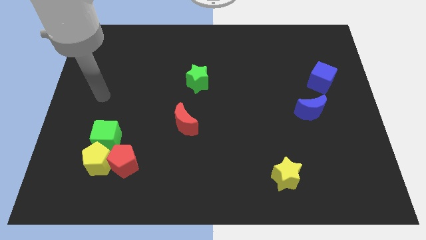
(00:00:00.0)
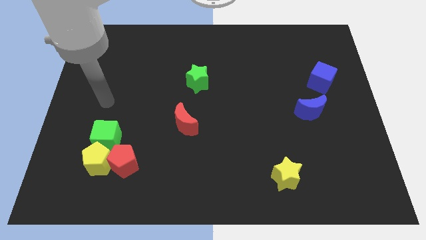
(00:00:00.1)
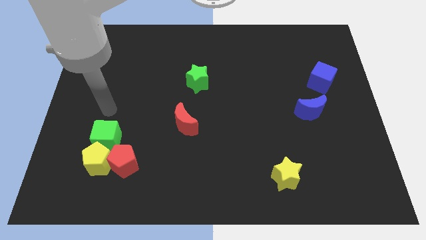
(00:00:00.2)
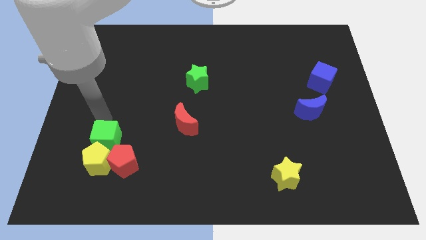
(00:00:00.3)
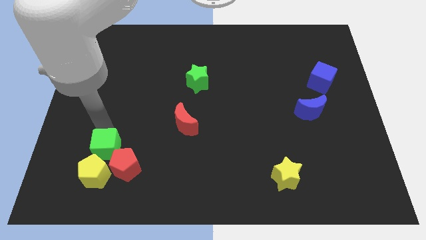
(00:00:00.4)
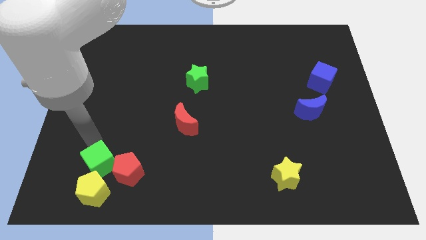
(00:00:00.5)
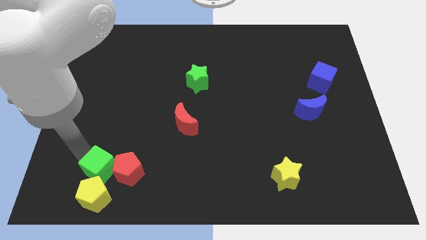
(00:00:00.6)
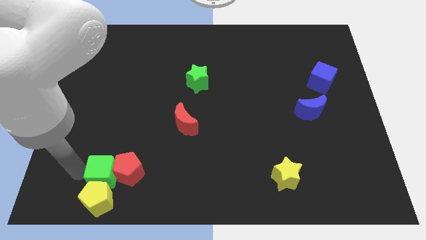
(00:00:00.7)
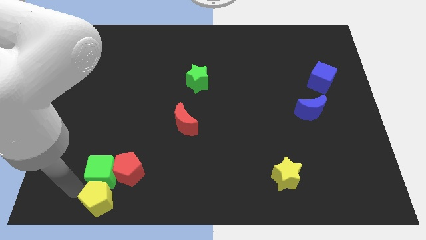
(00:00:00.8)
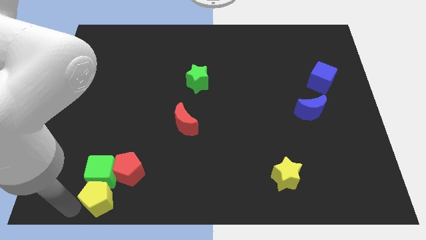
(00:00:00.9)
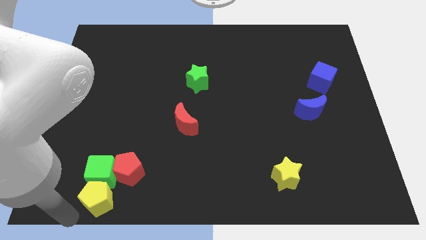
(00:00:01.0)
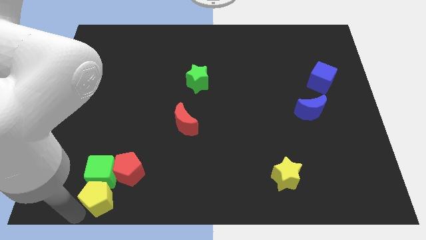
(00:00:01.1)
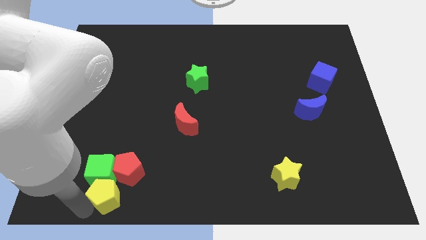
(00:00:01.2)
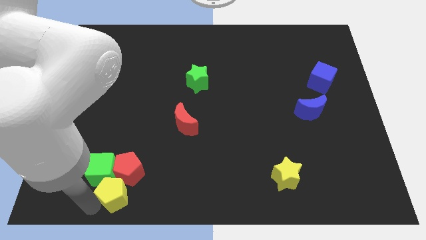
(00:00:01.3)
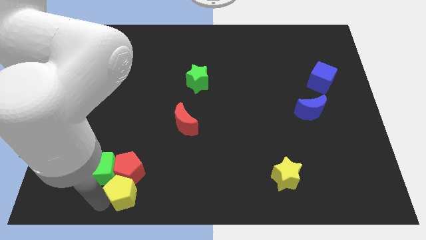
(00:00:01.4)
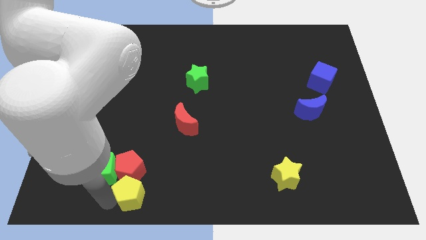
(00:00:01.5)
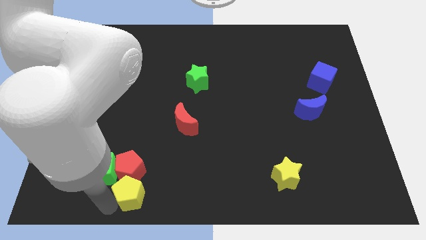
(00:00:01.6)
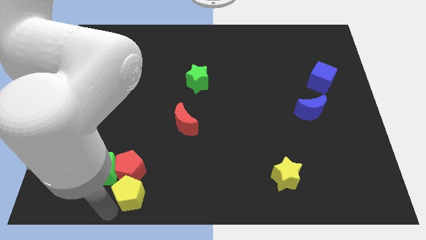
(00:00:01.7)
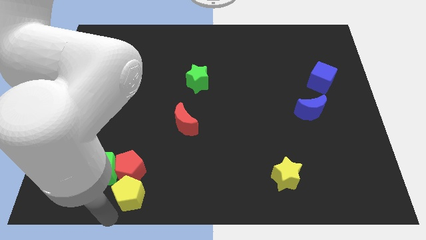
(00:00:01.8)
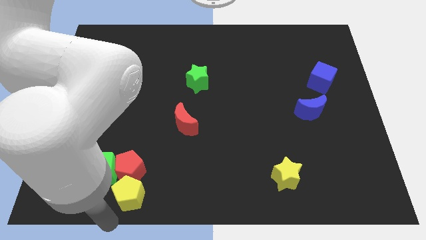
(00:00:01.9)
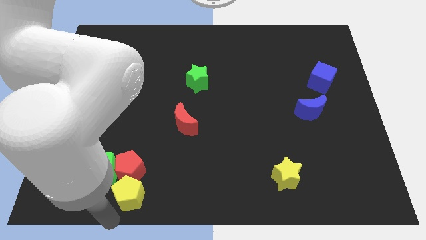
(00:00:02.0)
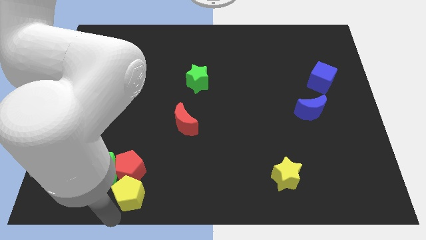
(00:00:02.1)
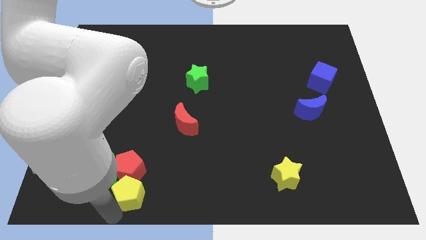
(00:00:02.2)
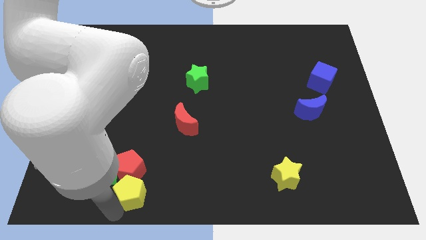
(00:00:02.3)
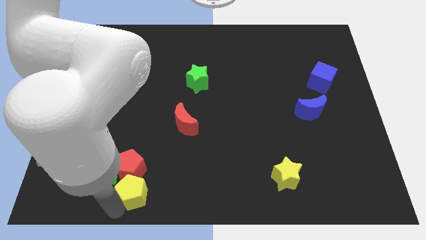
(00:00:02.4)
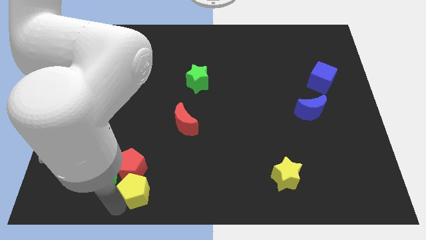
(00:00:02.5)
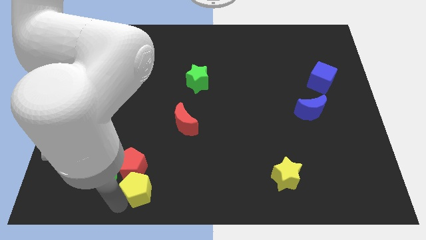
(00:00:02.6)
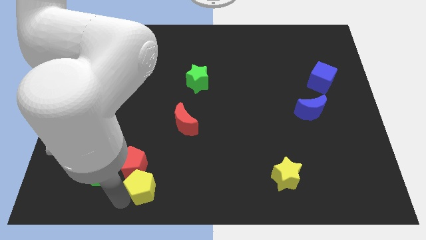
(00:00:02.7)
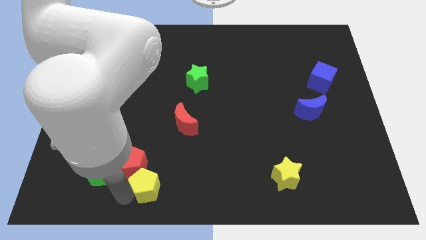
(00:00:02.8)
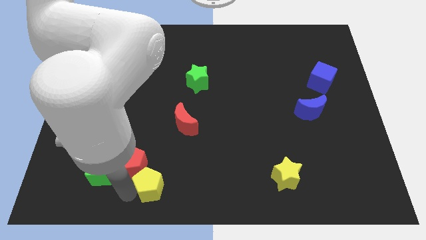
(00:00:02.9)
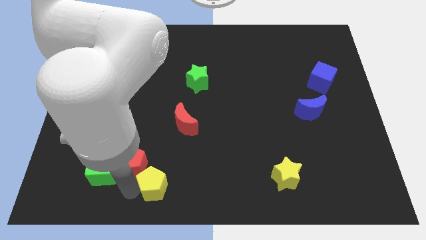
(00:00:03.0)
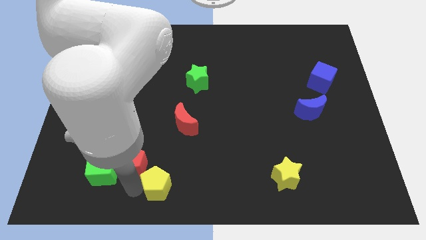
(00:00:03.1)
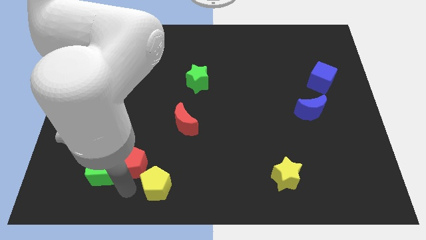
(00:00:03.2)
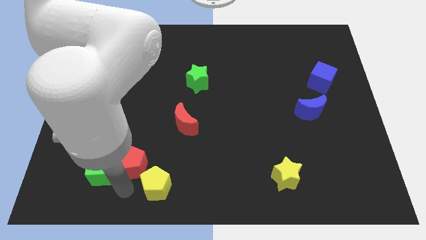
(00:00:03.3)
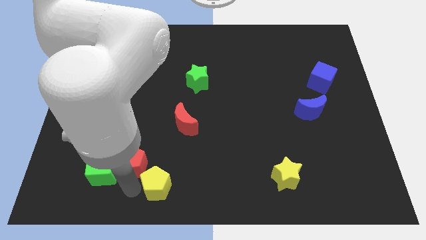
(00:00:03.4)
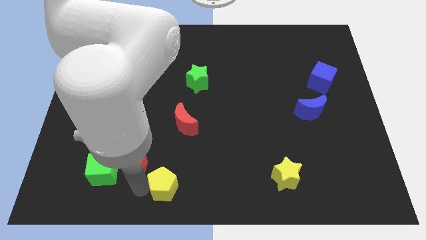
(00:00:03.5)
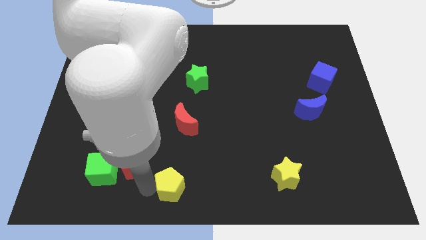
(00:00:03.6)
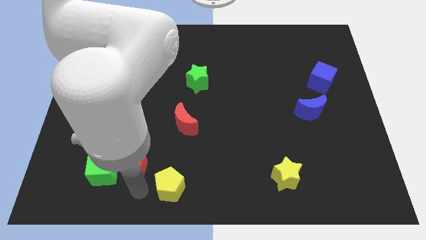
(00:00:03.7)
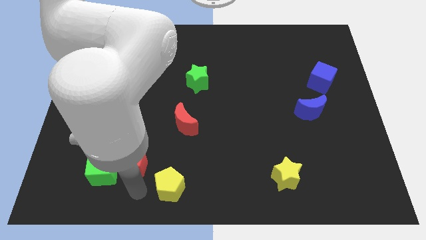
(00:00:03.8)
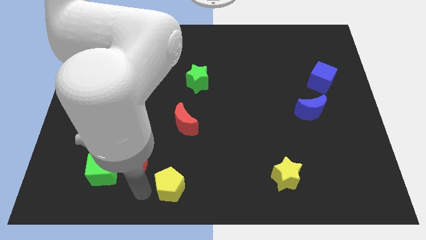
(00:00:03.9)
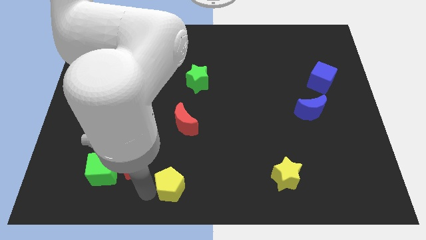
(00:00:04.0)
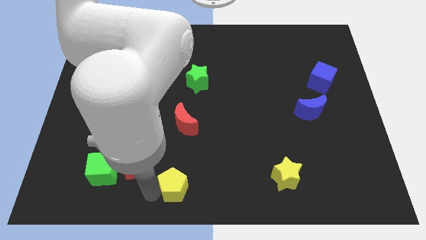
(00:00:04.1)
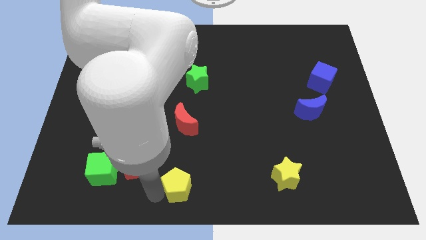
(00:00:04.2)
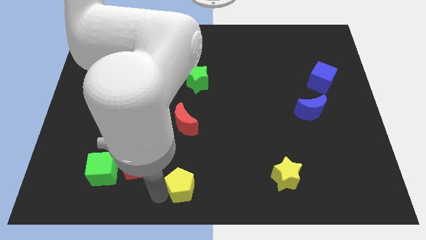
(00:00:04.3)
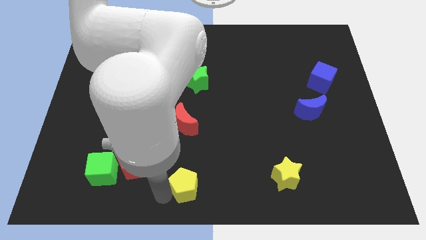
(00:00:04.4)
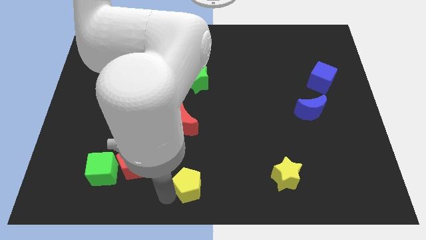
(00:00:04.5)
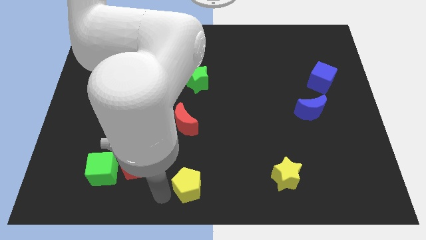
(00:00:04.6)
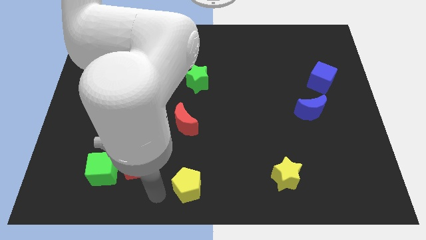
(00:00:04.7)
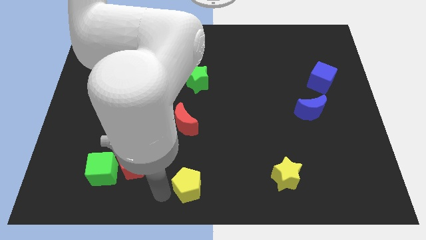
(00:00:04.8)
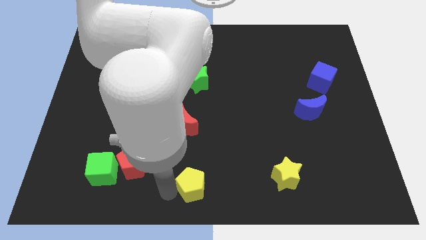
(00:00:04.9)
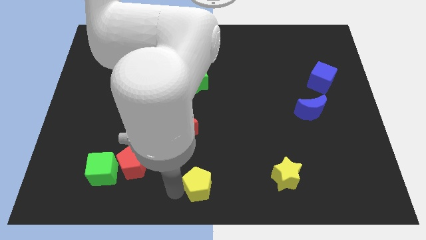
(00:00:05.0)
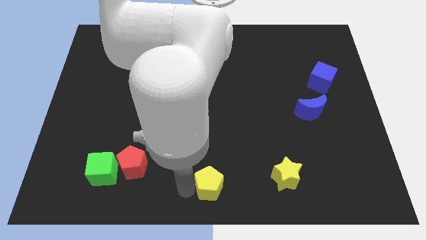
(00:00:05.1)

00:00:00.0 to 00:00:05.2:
slide the yellow pentagon to the left of the yellow star

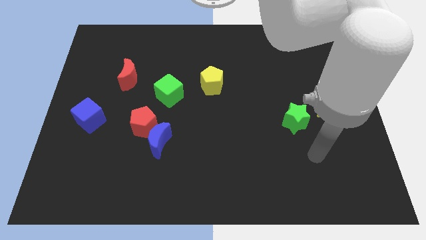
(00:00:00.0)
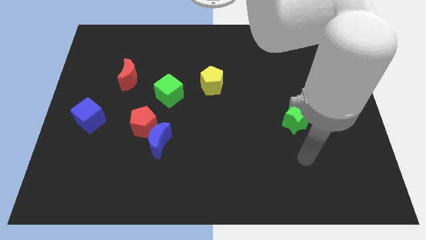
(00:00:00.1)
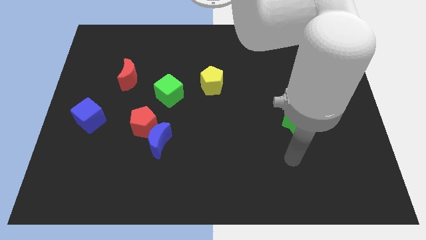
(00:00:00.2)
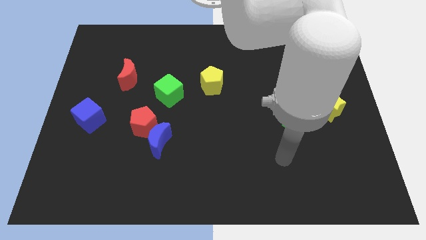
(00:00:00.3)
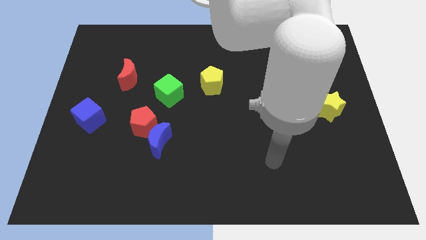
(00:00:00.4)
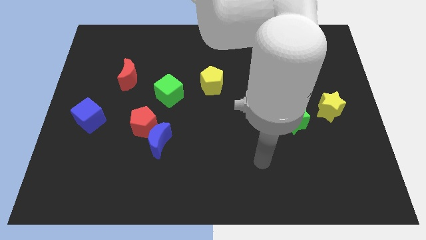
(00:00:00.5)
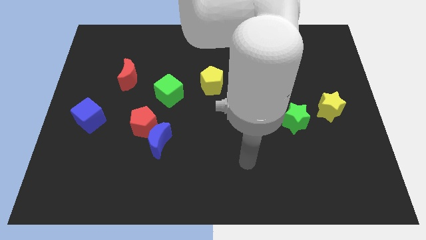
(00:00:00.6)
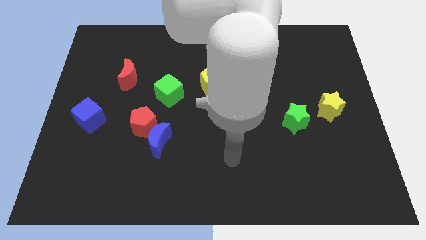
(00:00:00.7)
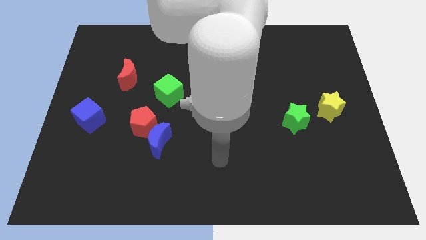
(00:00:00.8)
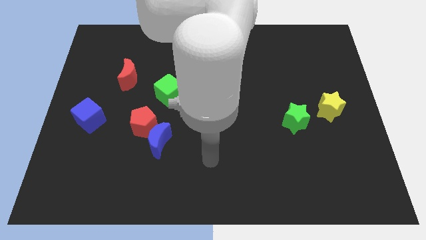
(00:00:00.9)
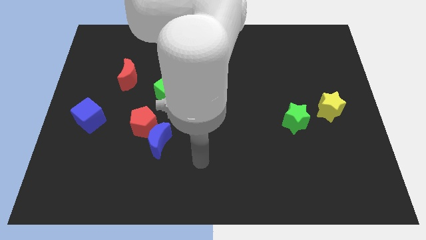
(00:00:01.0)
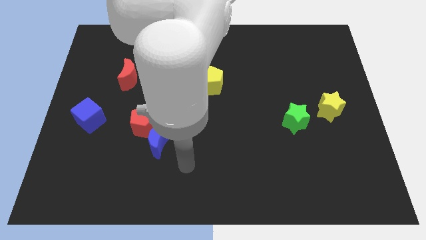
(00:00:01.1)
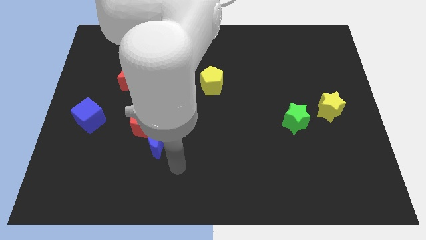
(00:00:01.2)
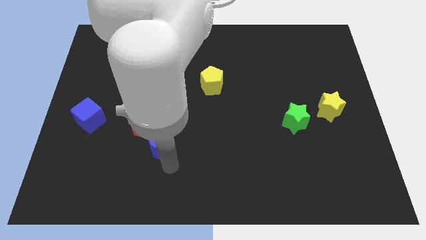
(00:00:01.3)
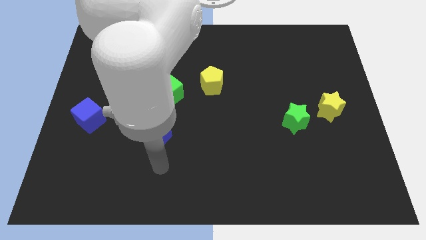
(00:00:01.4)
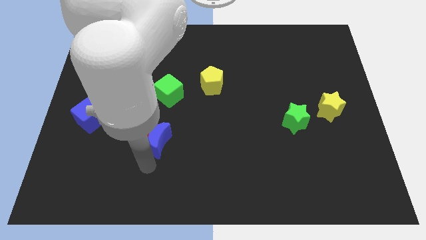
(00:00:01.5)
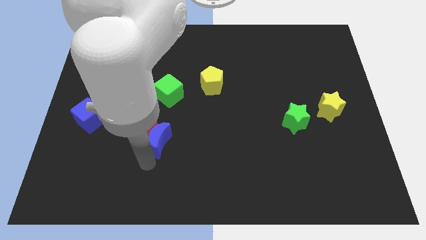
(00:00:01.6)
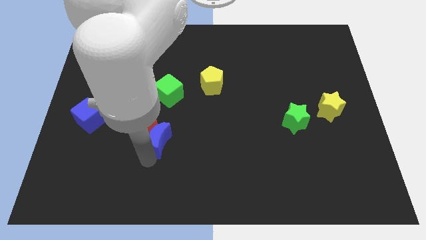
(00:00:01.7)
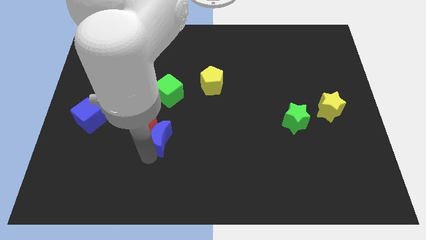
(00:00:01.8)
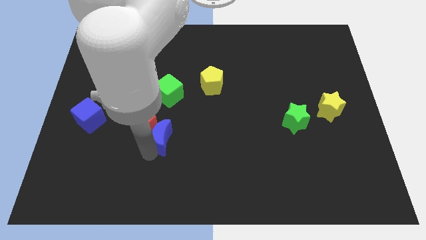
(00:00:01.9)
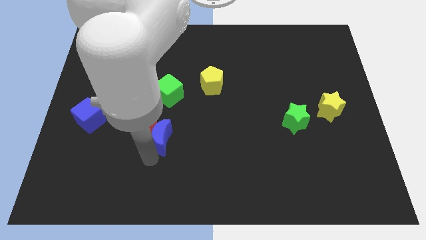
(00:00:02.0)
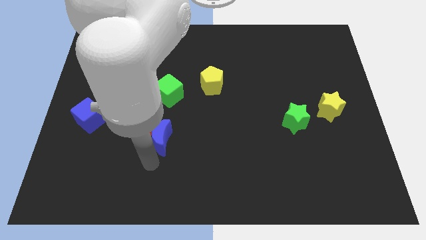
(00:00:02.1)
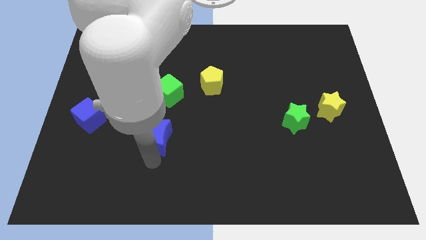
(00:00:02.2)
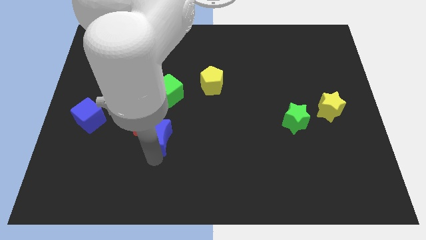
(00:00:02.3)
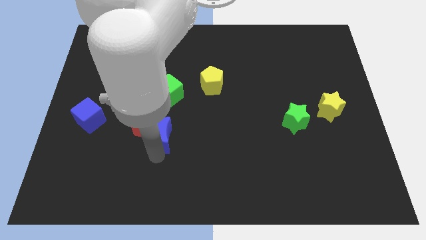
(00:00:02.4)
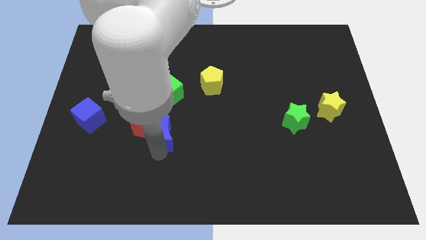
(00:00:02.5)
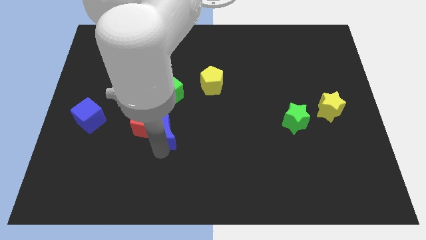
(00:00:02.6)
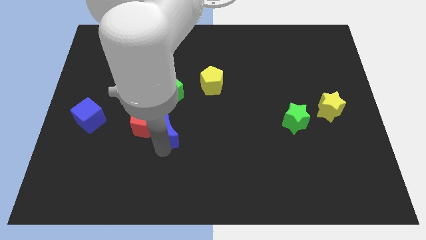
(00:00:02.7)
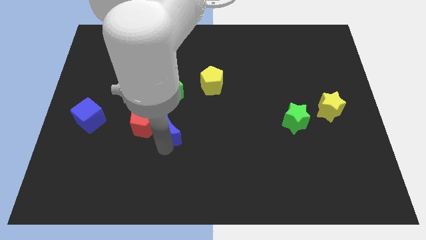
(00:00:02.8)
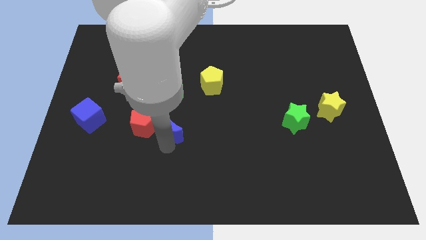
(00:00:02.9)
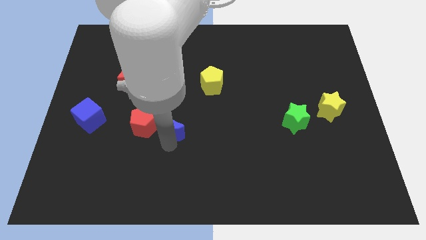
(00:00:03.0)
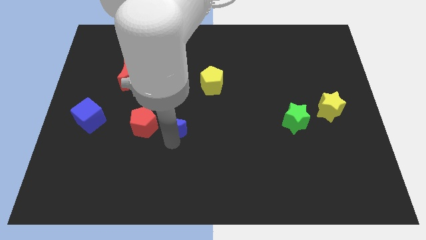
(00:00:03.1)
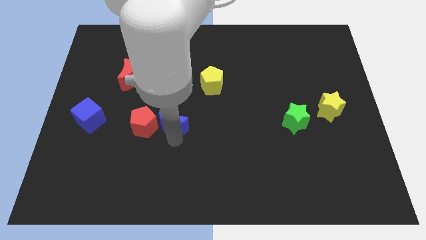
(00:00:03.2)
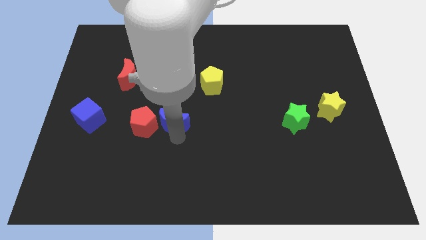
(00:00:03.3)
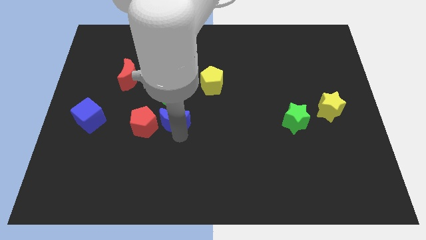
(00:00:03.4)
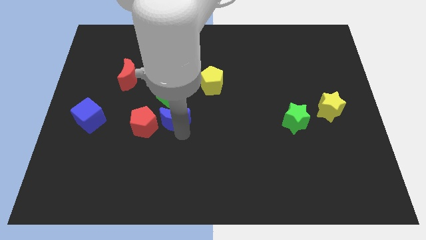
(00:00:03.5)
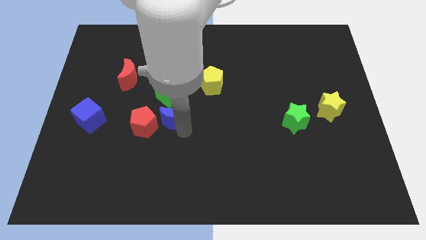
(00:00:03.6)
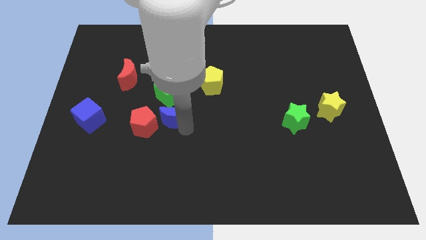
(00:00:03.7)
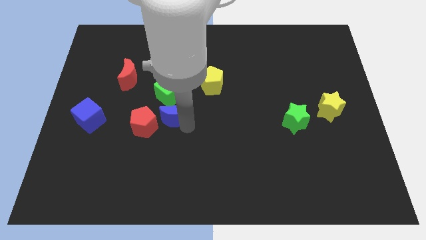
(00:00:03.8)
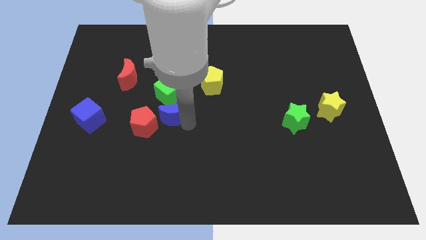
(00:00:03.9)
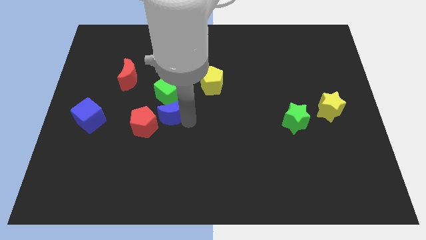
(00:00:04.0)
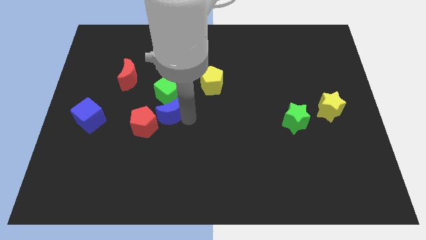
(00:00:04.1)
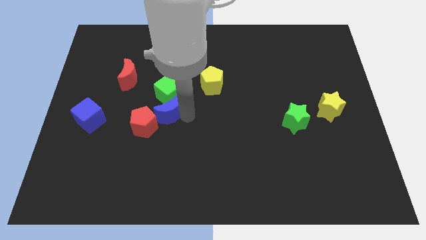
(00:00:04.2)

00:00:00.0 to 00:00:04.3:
push the blue moon to the bottom left side of the green cube
